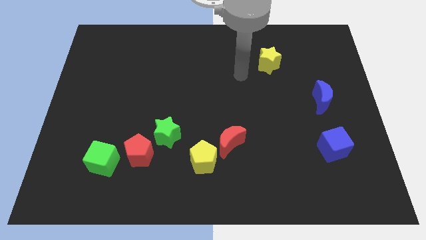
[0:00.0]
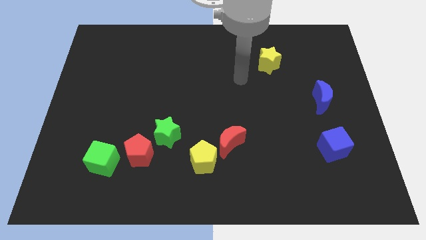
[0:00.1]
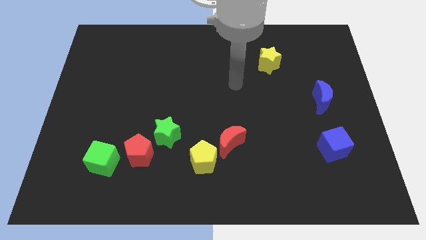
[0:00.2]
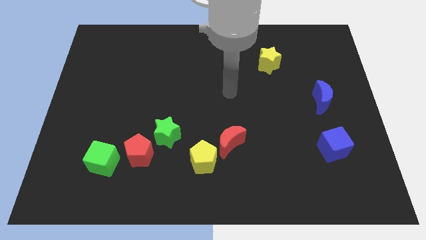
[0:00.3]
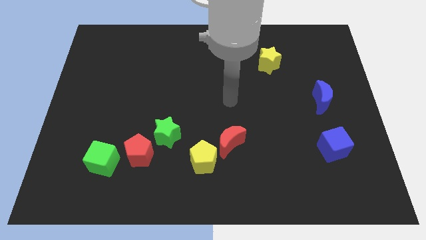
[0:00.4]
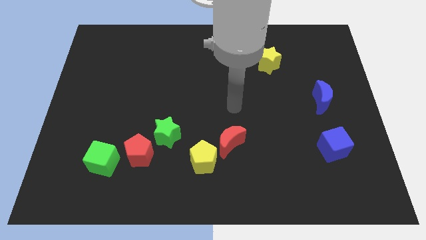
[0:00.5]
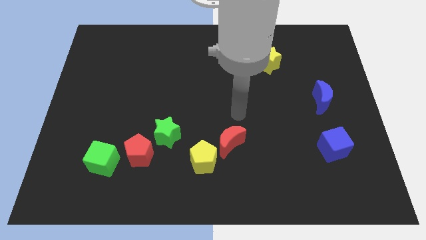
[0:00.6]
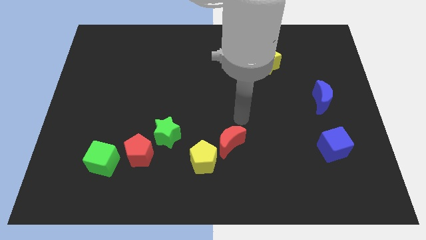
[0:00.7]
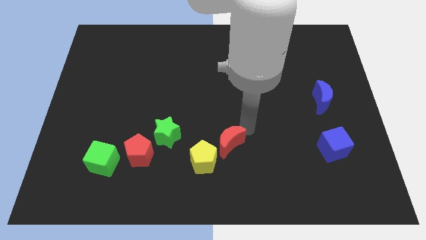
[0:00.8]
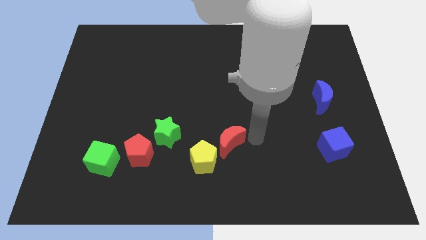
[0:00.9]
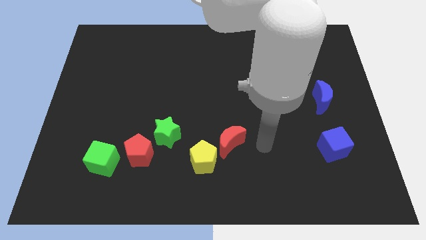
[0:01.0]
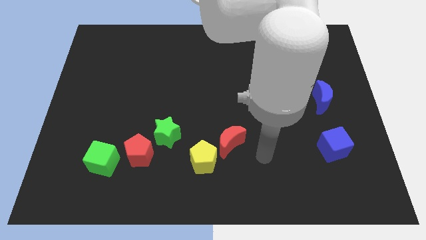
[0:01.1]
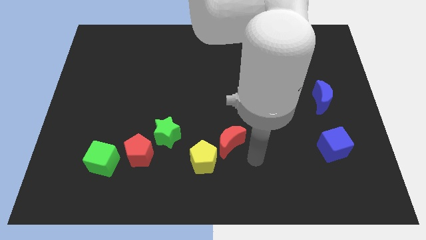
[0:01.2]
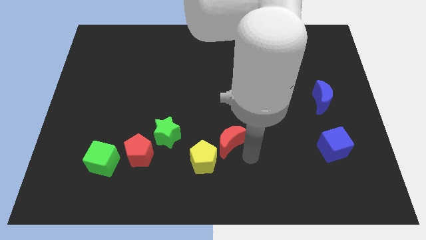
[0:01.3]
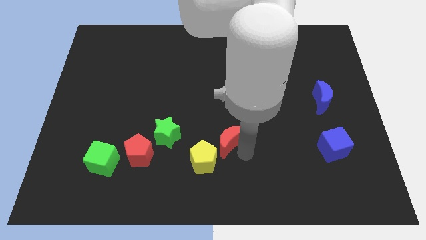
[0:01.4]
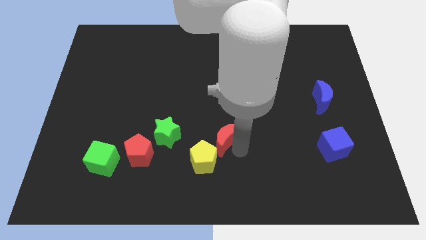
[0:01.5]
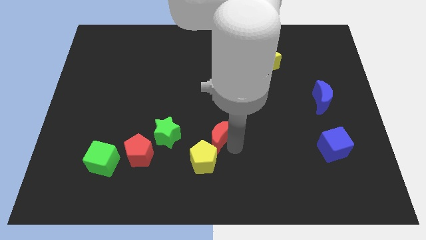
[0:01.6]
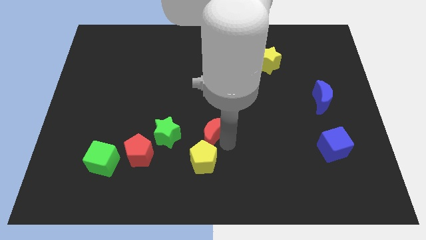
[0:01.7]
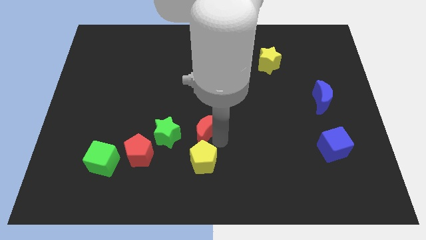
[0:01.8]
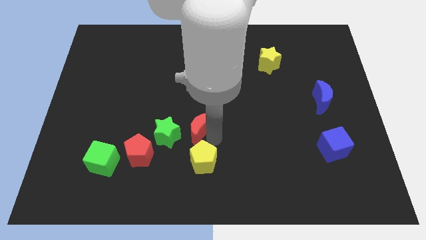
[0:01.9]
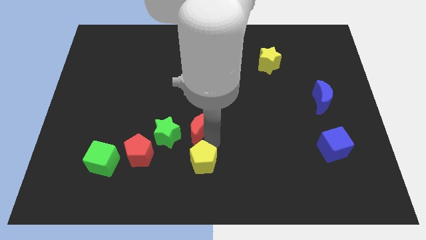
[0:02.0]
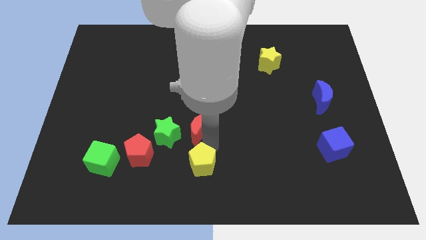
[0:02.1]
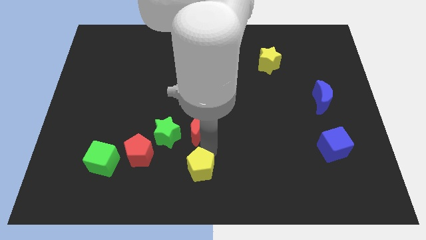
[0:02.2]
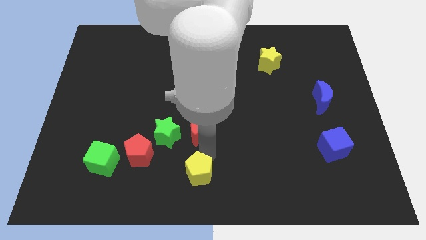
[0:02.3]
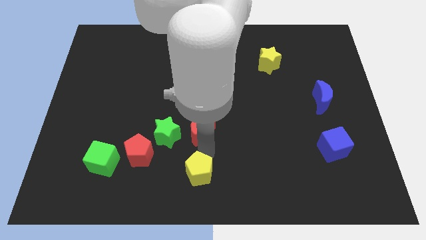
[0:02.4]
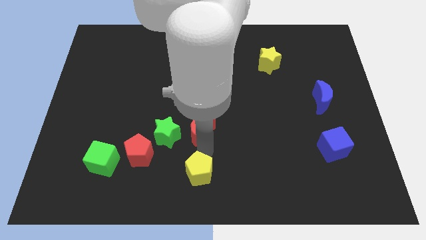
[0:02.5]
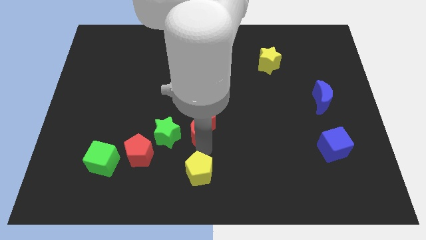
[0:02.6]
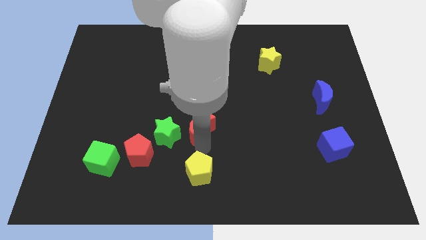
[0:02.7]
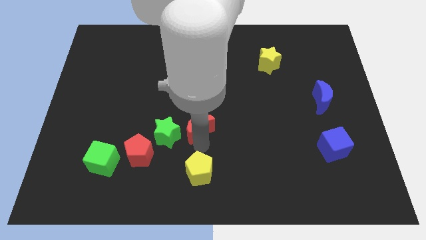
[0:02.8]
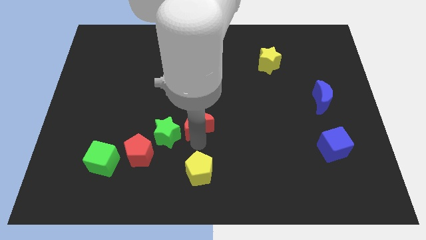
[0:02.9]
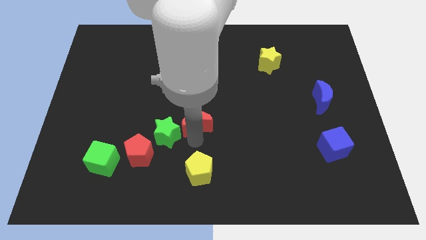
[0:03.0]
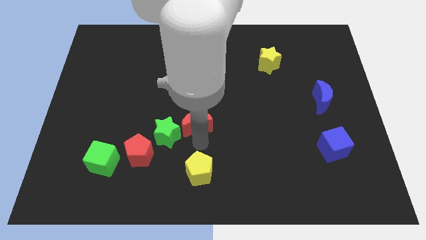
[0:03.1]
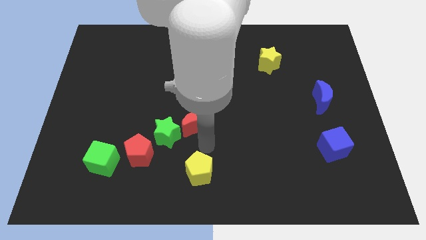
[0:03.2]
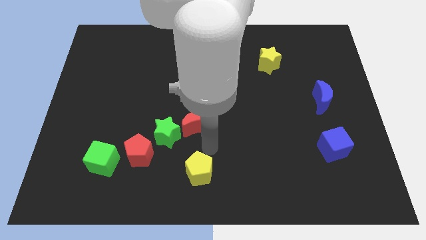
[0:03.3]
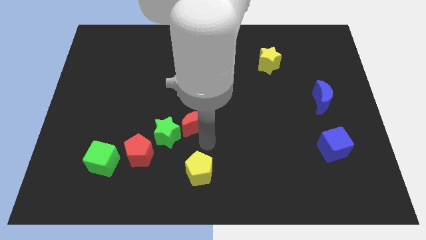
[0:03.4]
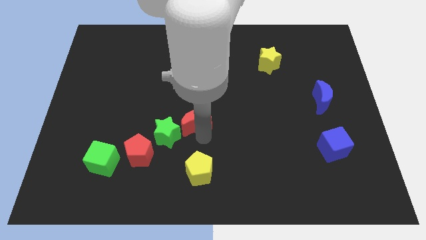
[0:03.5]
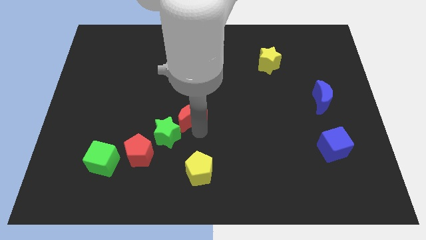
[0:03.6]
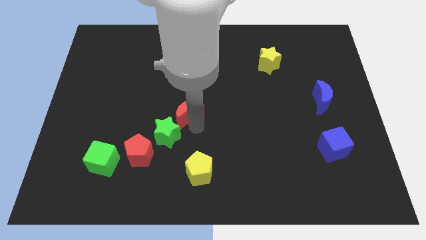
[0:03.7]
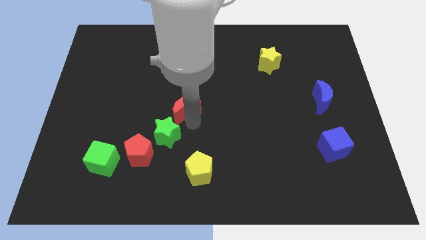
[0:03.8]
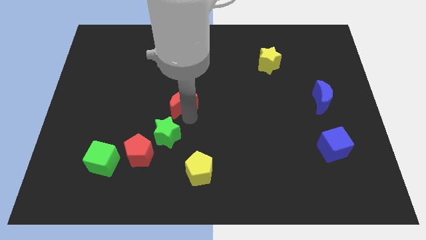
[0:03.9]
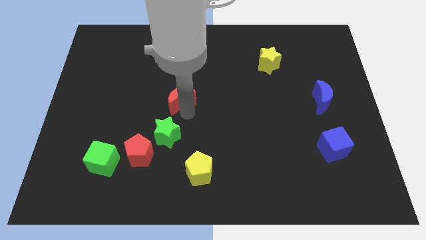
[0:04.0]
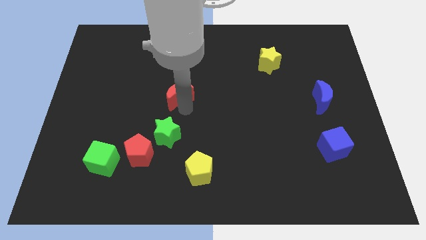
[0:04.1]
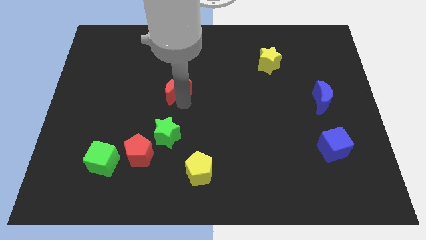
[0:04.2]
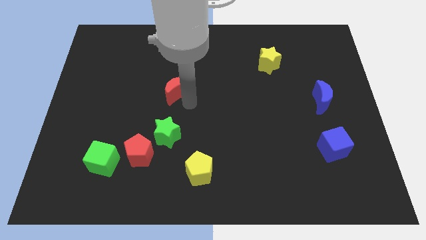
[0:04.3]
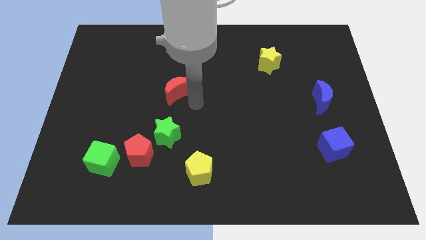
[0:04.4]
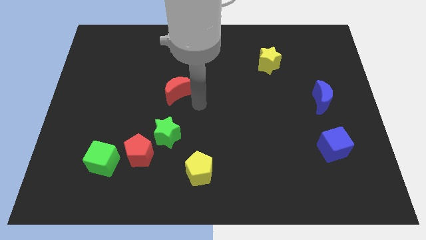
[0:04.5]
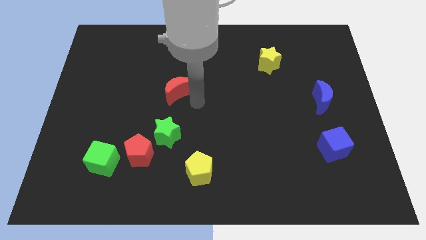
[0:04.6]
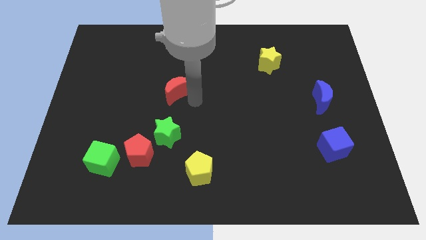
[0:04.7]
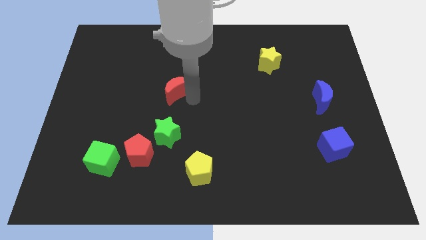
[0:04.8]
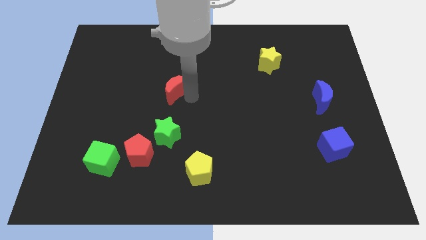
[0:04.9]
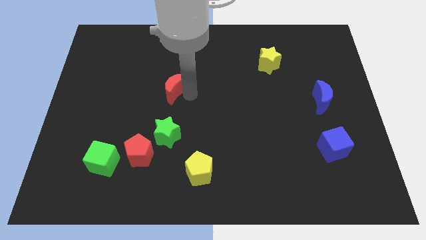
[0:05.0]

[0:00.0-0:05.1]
push the red moon upwards and to the left

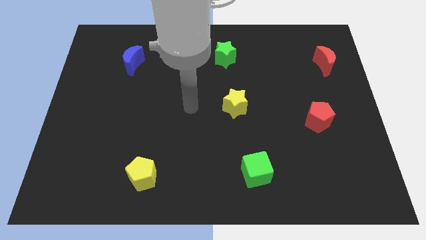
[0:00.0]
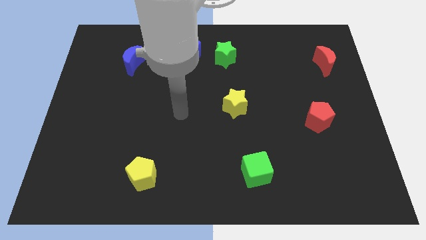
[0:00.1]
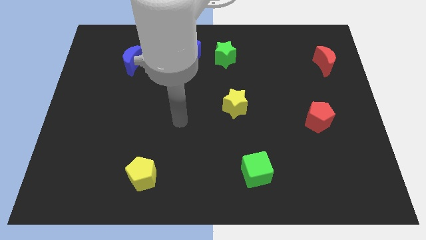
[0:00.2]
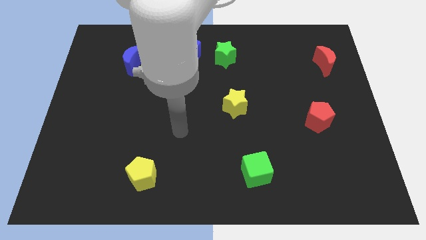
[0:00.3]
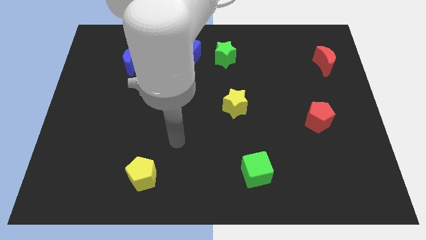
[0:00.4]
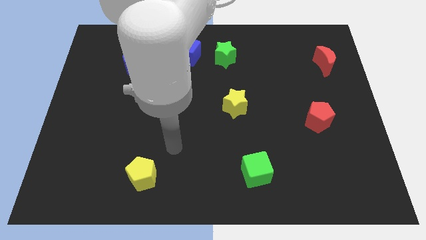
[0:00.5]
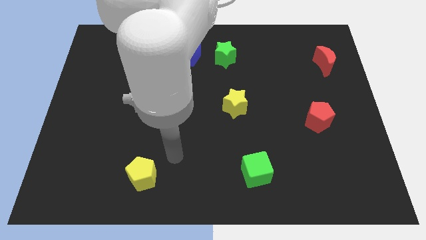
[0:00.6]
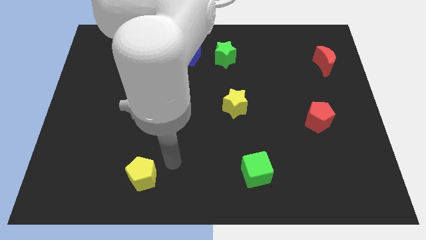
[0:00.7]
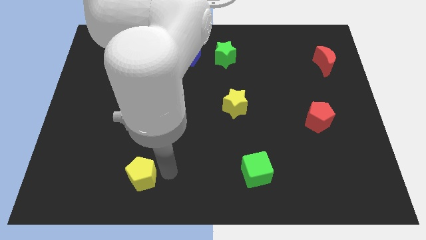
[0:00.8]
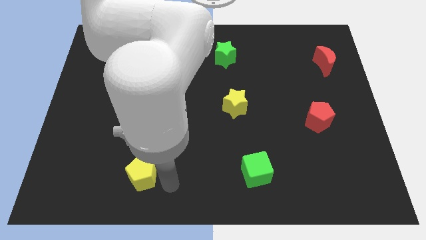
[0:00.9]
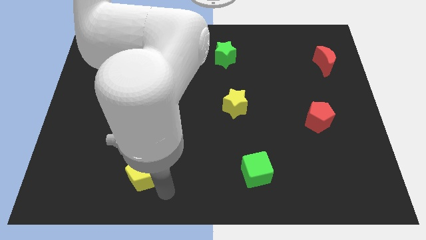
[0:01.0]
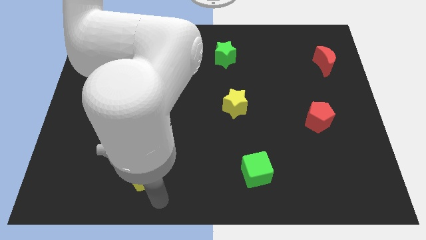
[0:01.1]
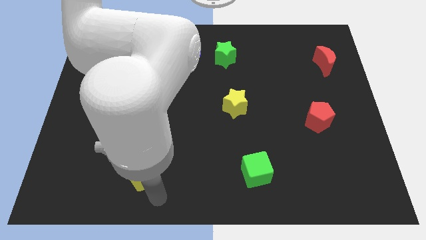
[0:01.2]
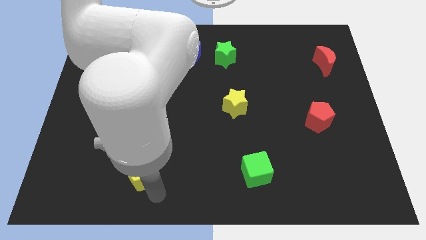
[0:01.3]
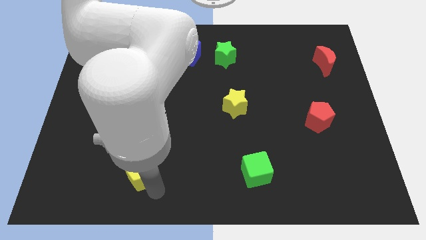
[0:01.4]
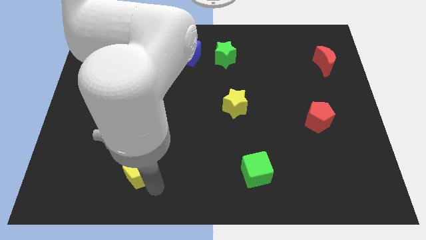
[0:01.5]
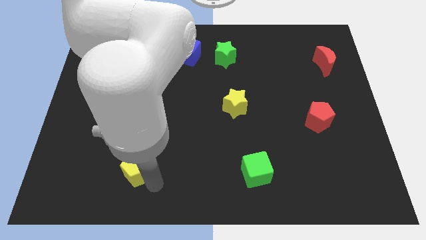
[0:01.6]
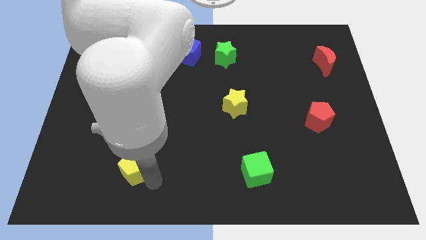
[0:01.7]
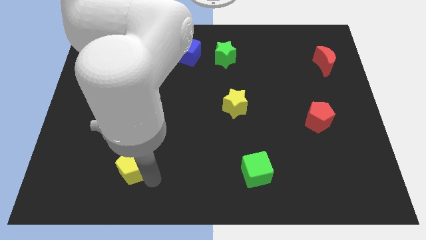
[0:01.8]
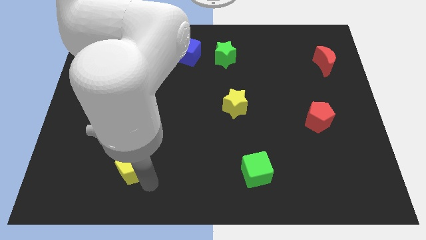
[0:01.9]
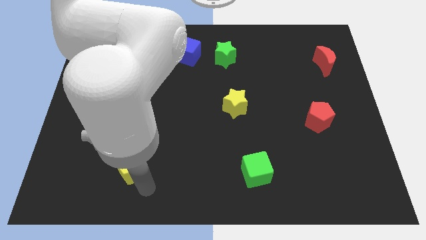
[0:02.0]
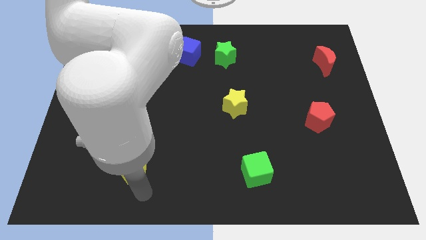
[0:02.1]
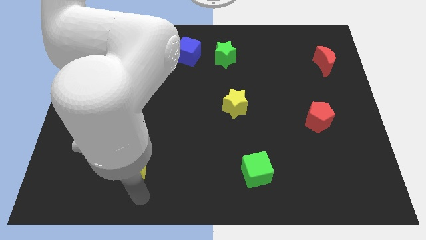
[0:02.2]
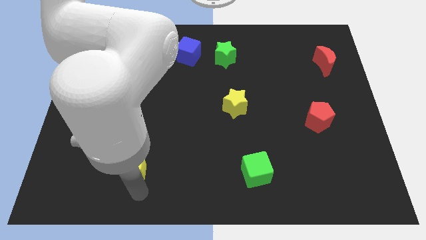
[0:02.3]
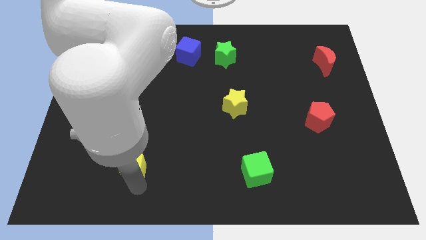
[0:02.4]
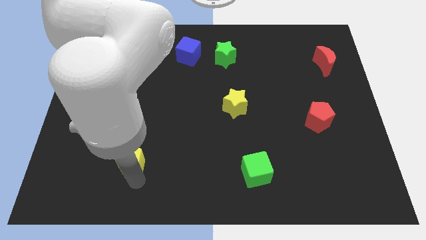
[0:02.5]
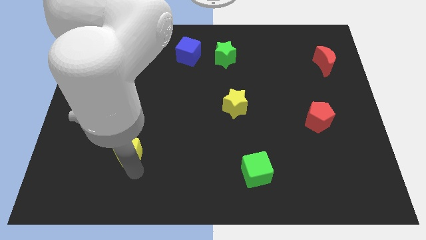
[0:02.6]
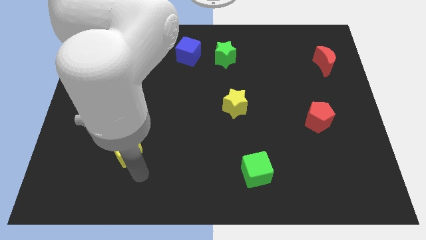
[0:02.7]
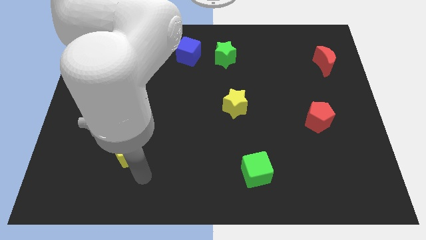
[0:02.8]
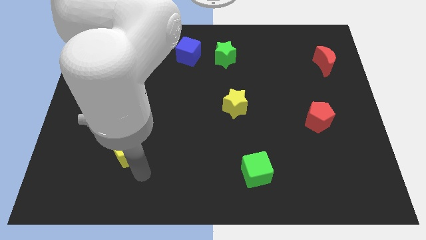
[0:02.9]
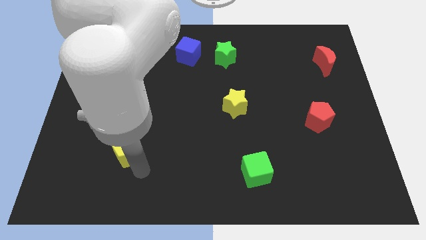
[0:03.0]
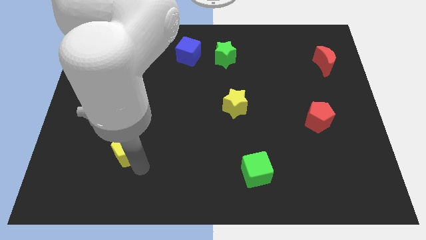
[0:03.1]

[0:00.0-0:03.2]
push the yellow pentagon somewhat up and then left
